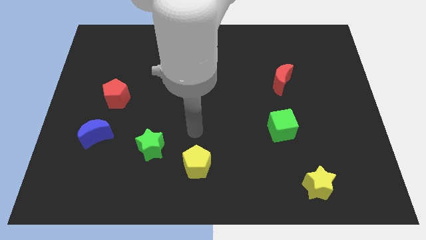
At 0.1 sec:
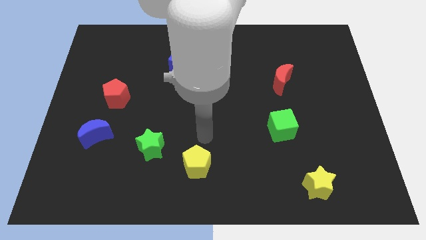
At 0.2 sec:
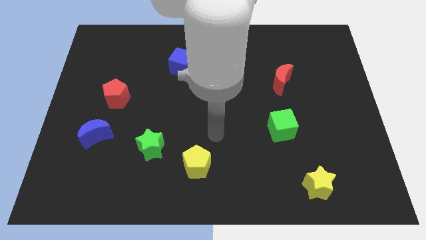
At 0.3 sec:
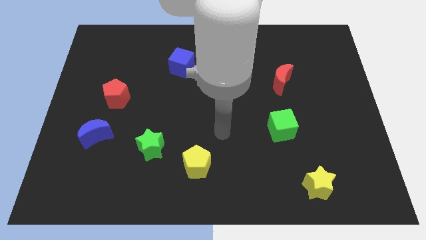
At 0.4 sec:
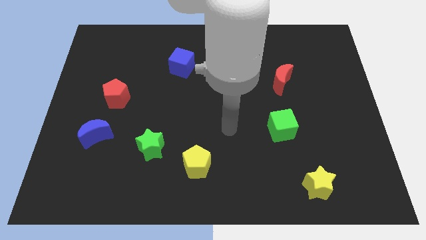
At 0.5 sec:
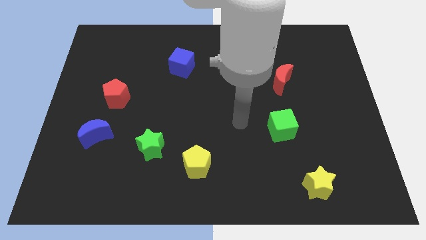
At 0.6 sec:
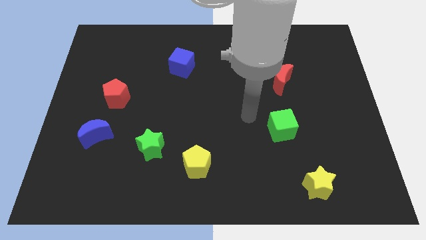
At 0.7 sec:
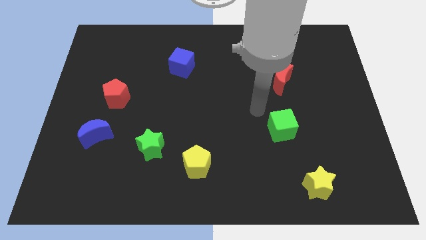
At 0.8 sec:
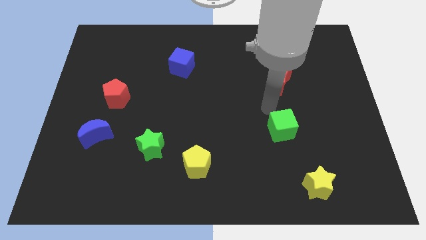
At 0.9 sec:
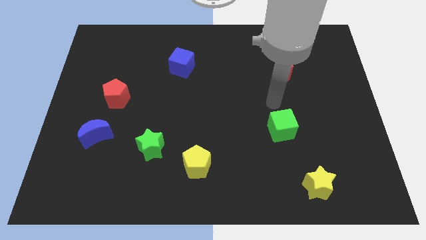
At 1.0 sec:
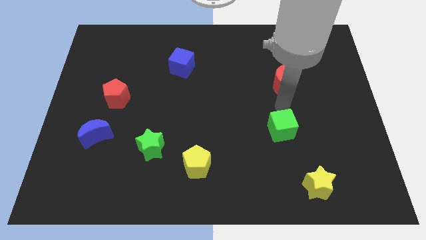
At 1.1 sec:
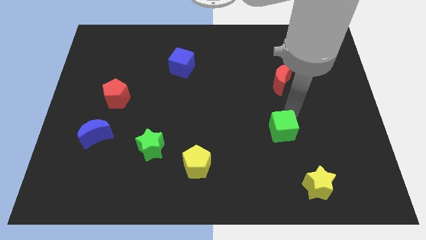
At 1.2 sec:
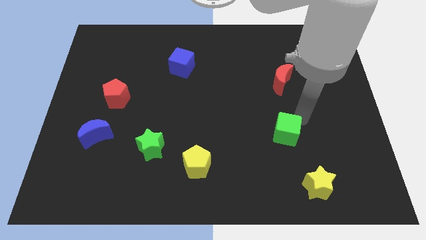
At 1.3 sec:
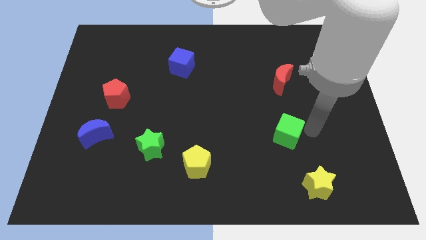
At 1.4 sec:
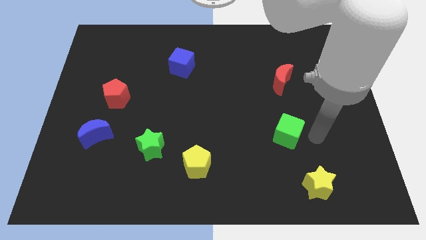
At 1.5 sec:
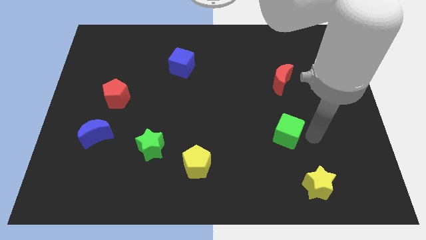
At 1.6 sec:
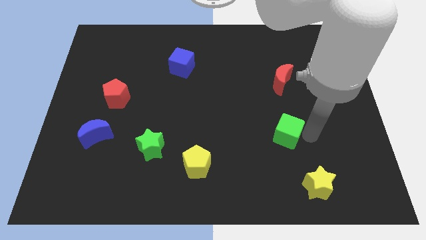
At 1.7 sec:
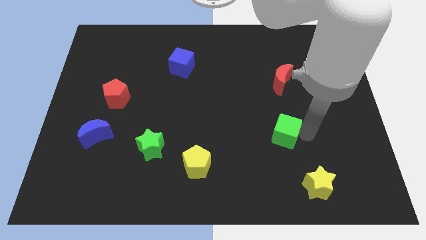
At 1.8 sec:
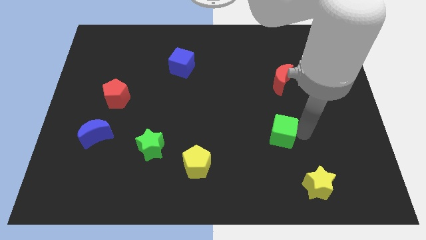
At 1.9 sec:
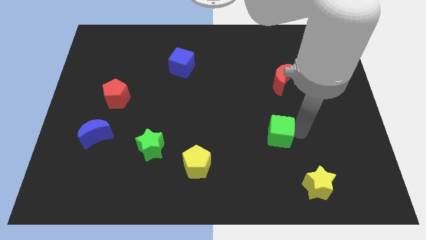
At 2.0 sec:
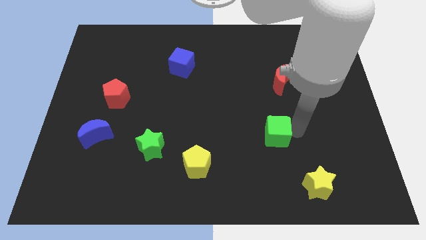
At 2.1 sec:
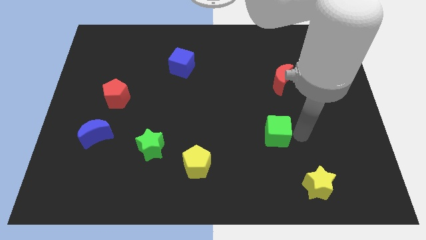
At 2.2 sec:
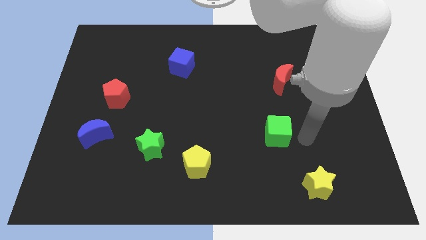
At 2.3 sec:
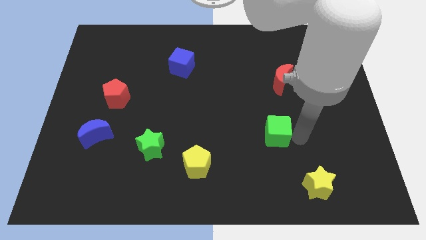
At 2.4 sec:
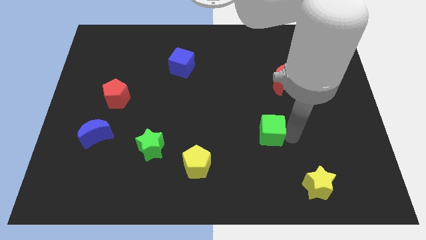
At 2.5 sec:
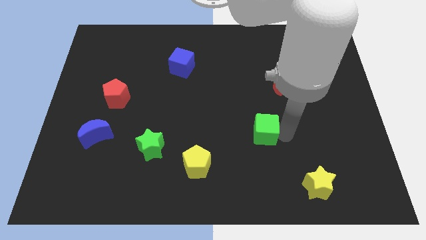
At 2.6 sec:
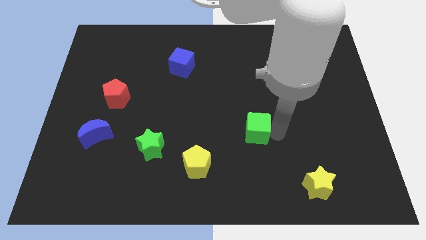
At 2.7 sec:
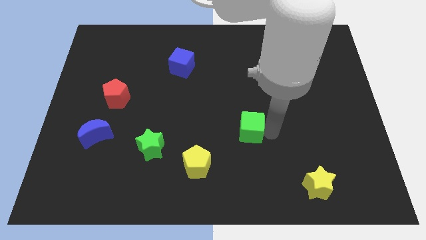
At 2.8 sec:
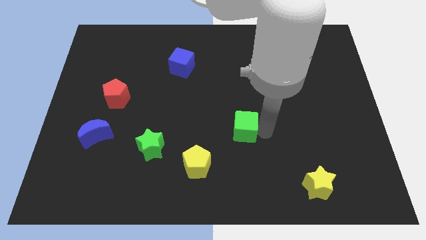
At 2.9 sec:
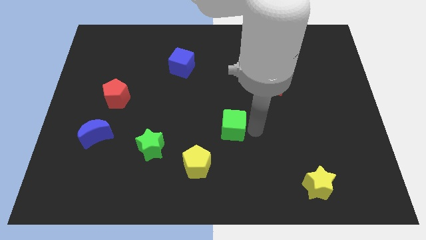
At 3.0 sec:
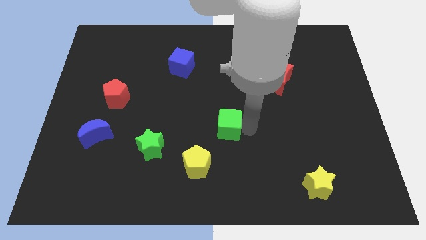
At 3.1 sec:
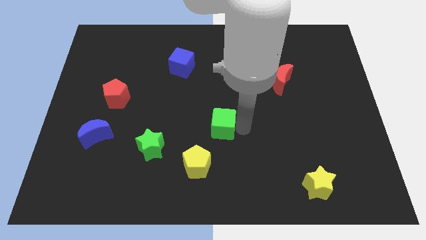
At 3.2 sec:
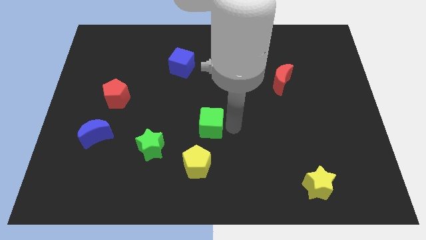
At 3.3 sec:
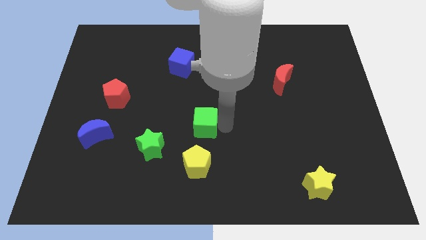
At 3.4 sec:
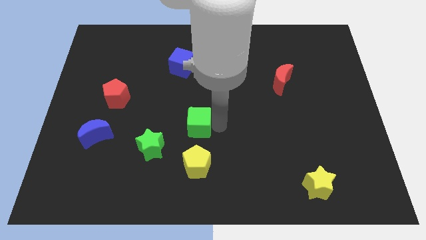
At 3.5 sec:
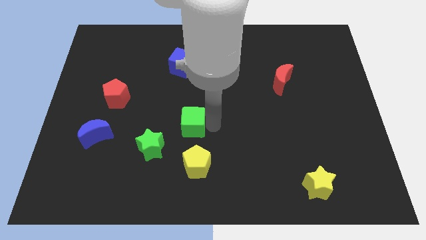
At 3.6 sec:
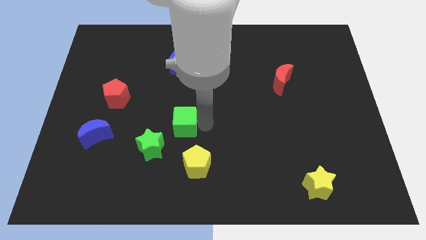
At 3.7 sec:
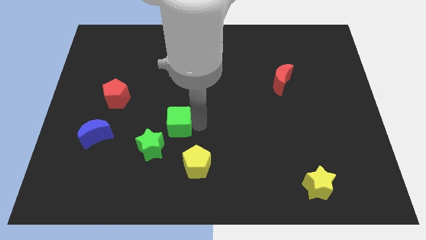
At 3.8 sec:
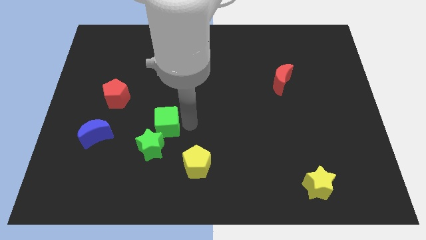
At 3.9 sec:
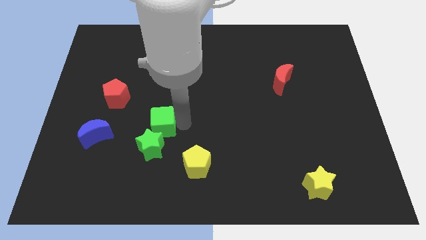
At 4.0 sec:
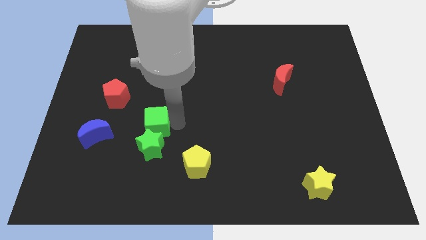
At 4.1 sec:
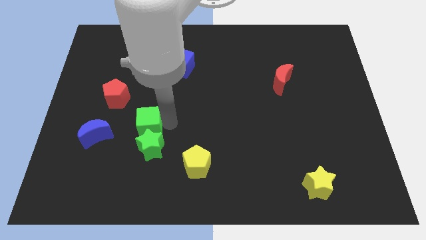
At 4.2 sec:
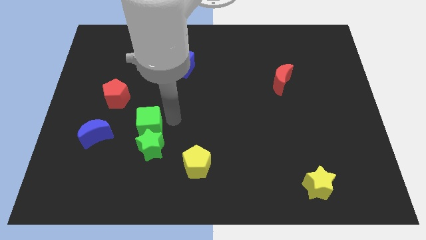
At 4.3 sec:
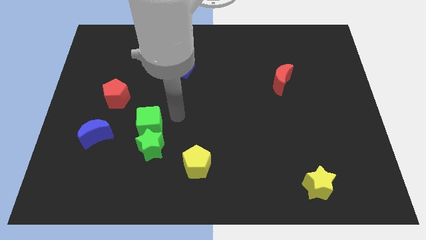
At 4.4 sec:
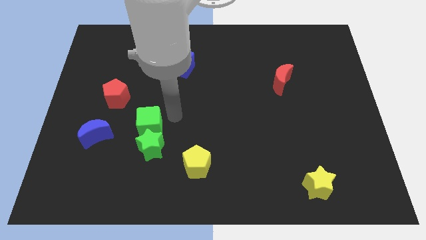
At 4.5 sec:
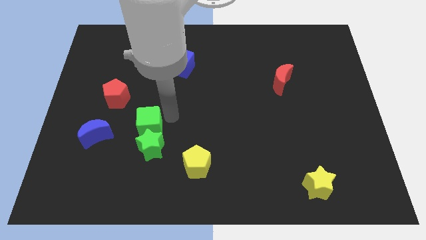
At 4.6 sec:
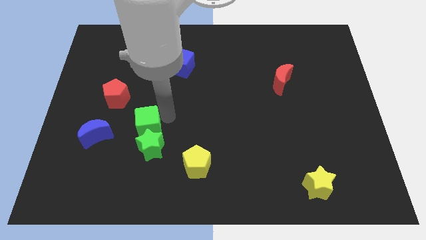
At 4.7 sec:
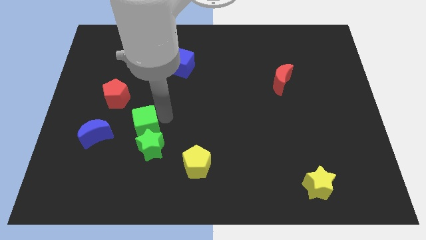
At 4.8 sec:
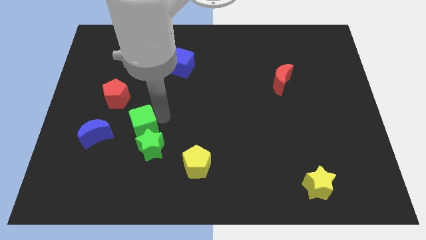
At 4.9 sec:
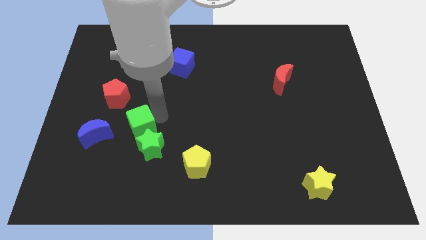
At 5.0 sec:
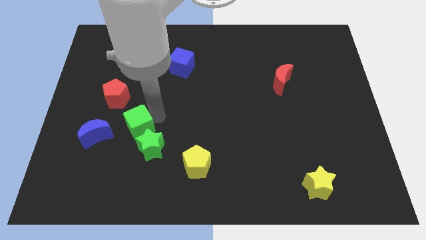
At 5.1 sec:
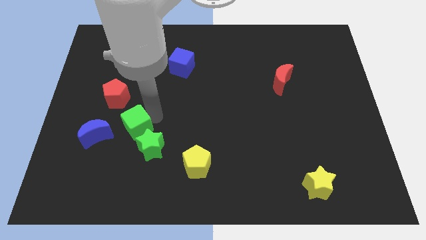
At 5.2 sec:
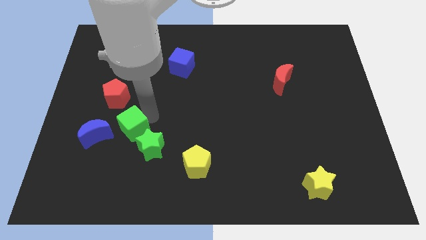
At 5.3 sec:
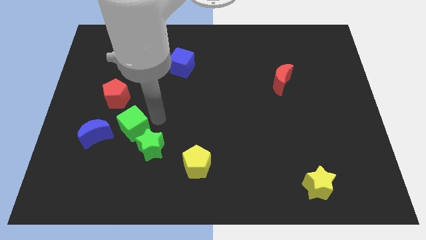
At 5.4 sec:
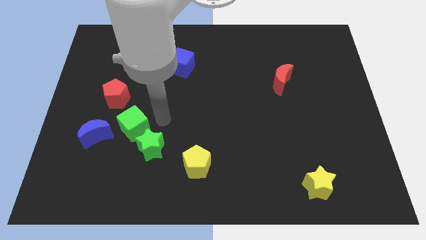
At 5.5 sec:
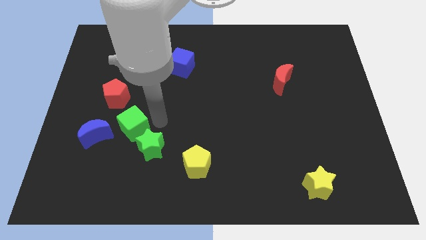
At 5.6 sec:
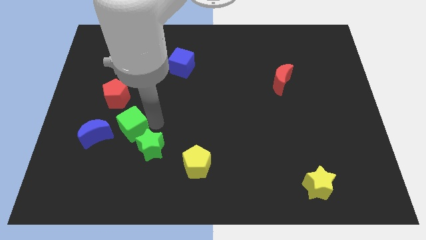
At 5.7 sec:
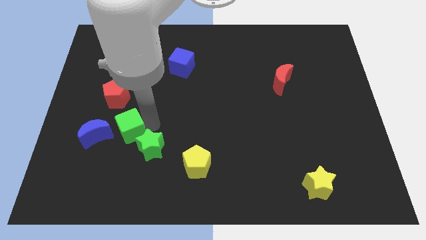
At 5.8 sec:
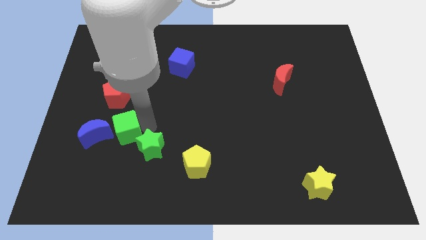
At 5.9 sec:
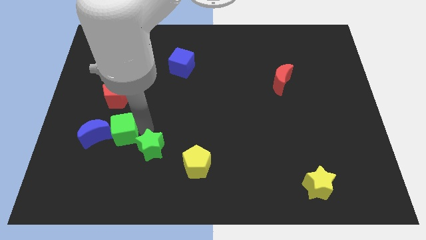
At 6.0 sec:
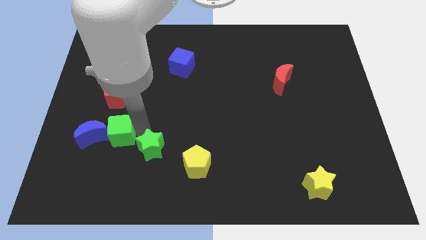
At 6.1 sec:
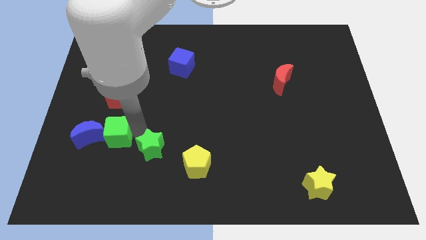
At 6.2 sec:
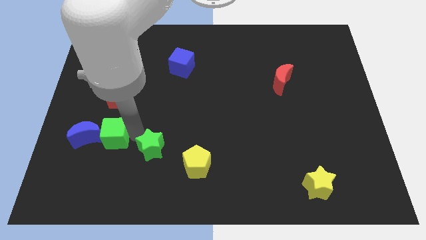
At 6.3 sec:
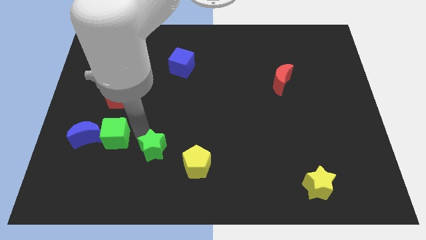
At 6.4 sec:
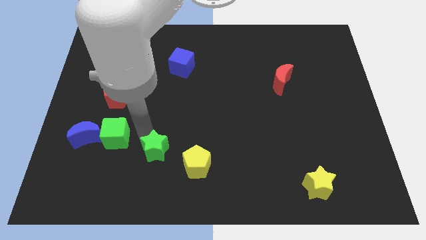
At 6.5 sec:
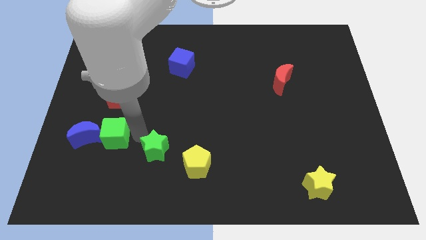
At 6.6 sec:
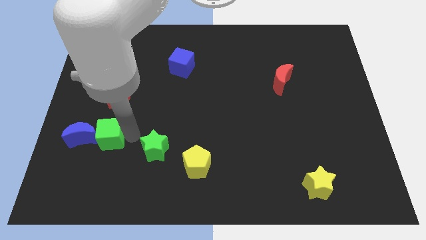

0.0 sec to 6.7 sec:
put the green cube close to the blue moon

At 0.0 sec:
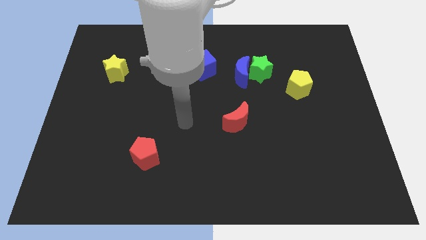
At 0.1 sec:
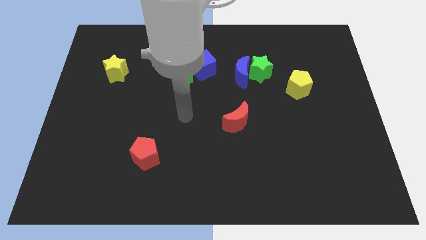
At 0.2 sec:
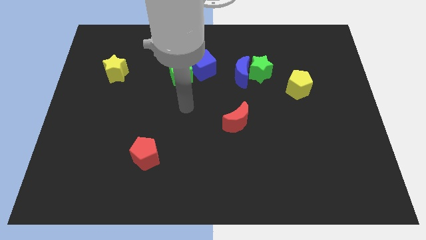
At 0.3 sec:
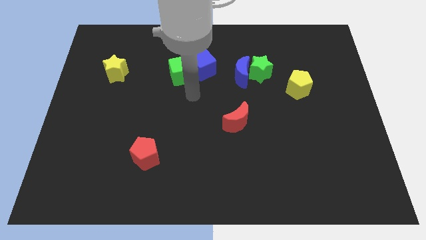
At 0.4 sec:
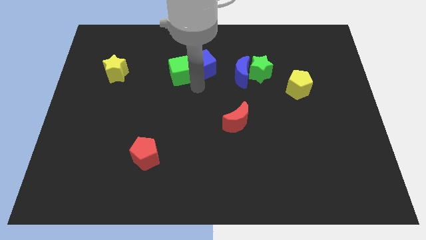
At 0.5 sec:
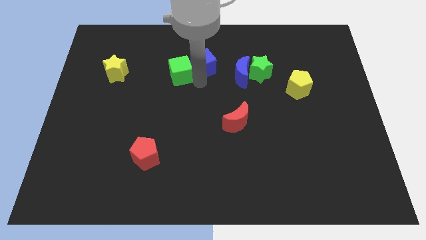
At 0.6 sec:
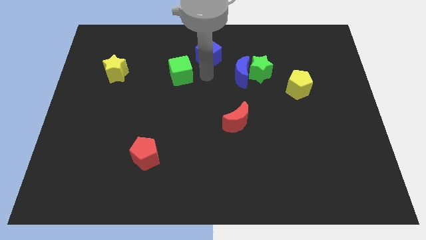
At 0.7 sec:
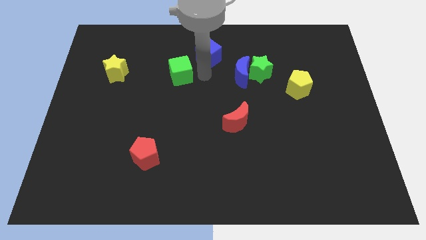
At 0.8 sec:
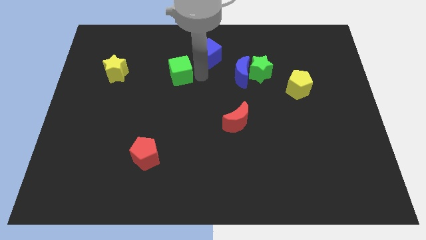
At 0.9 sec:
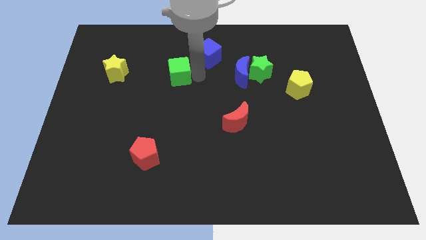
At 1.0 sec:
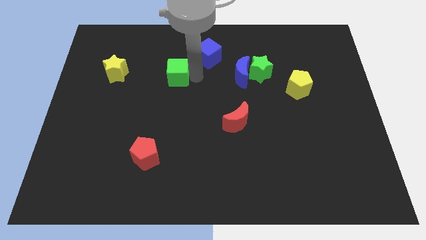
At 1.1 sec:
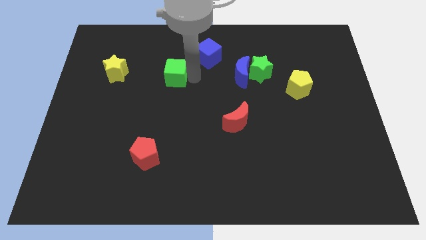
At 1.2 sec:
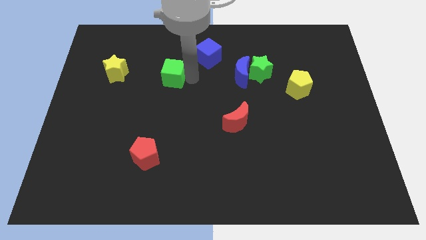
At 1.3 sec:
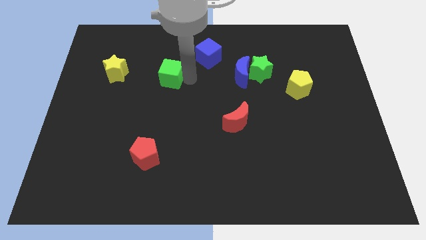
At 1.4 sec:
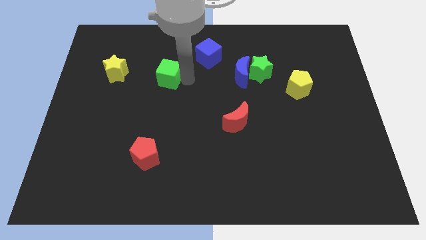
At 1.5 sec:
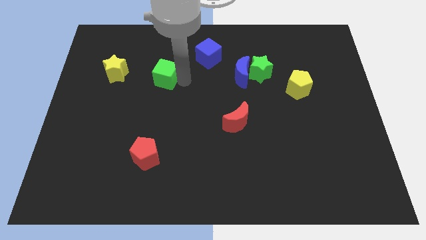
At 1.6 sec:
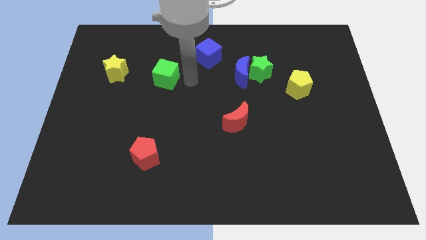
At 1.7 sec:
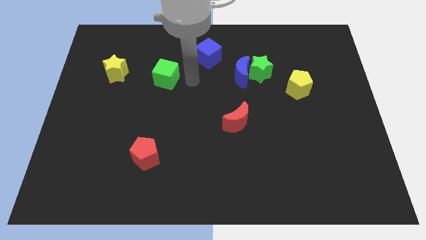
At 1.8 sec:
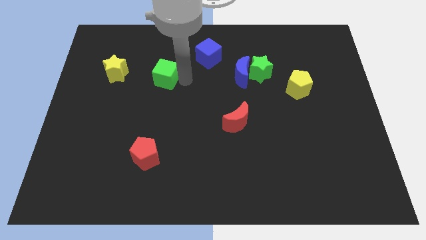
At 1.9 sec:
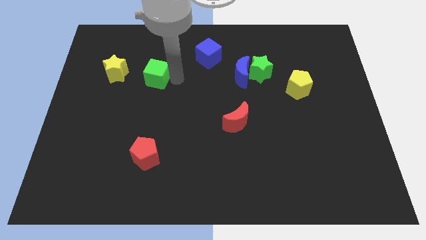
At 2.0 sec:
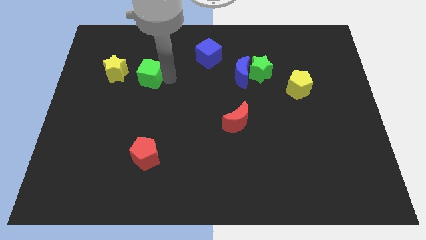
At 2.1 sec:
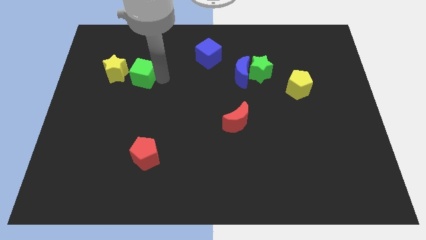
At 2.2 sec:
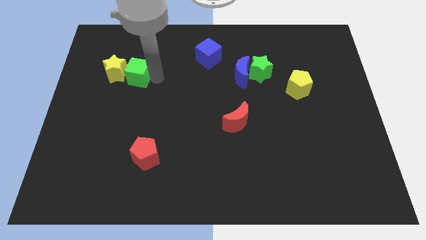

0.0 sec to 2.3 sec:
push the green cube close to the yellow star
